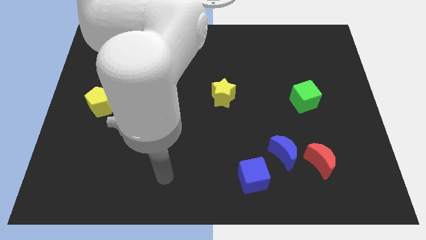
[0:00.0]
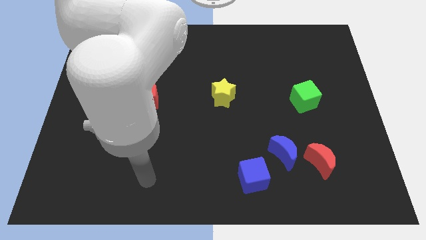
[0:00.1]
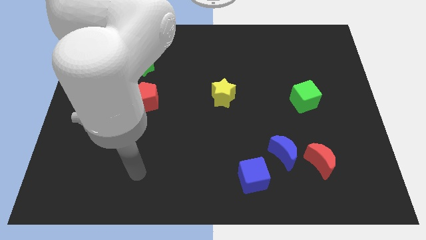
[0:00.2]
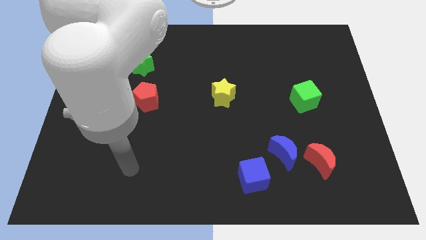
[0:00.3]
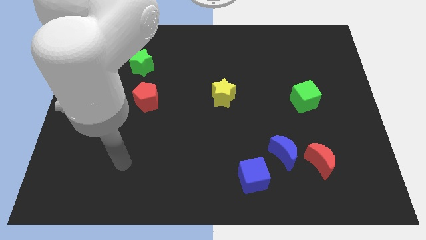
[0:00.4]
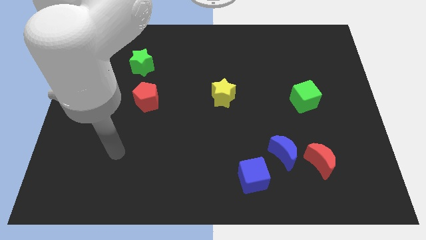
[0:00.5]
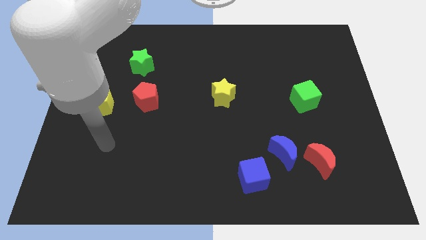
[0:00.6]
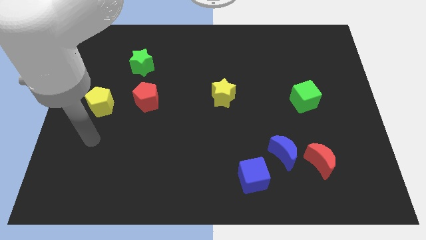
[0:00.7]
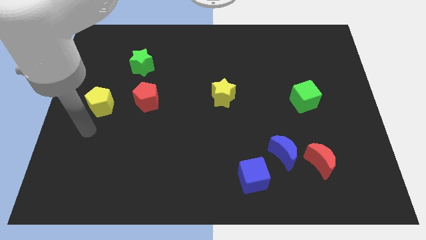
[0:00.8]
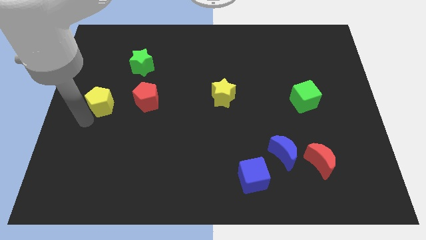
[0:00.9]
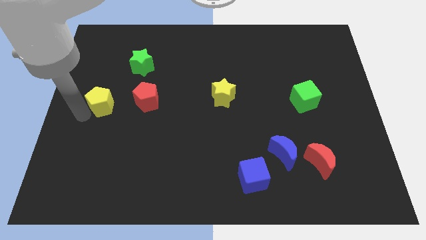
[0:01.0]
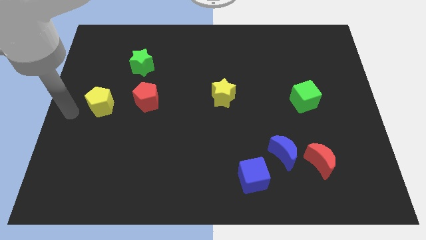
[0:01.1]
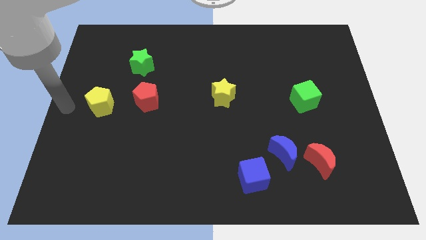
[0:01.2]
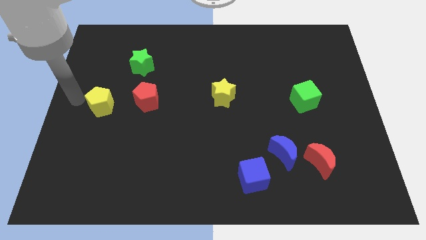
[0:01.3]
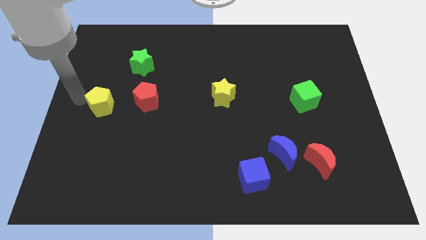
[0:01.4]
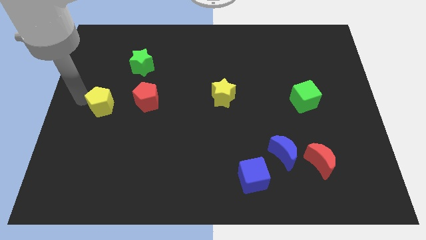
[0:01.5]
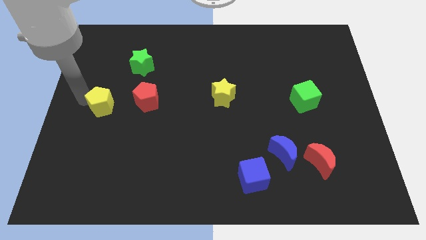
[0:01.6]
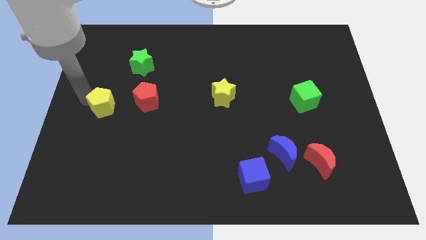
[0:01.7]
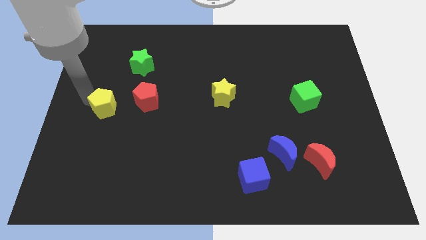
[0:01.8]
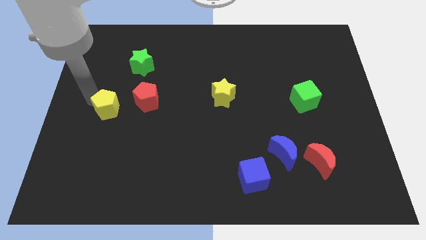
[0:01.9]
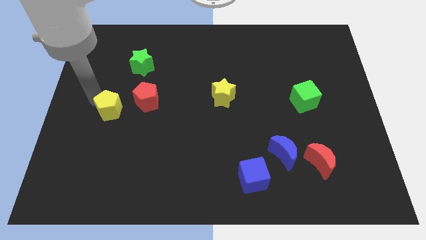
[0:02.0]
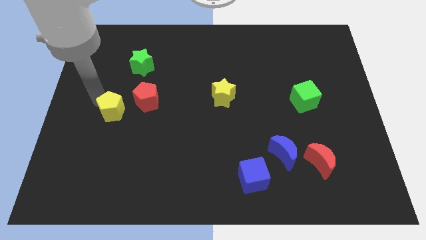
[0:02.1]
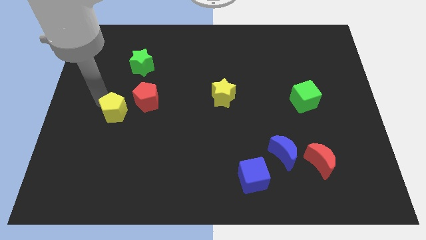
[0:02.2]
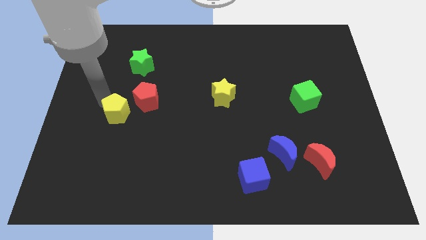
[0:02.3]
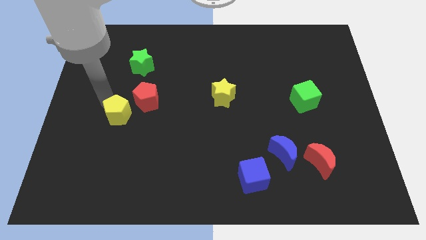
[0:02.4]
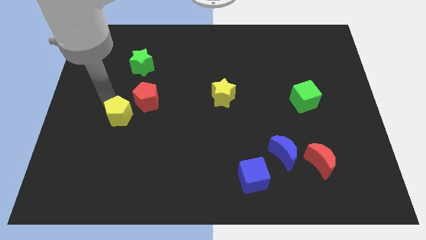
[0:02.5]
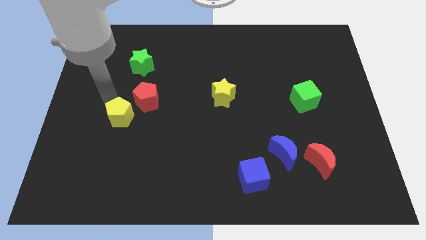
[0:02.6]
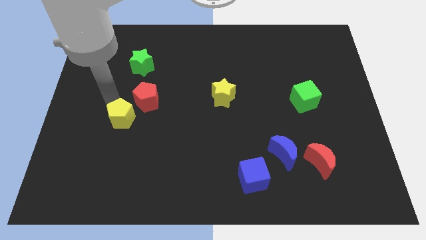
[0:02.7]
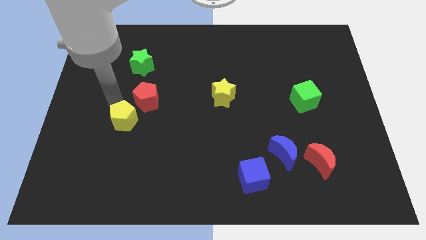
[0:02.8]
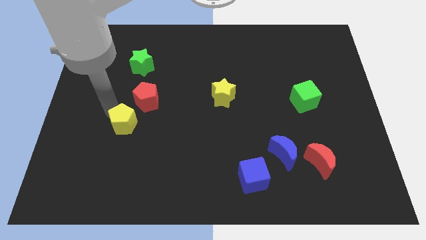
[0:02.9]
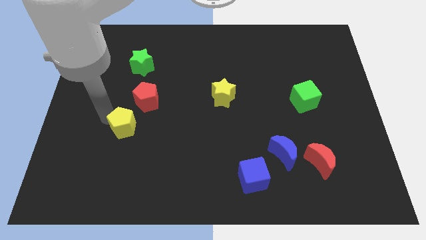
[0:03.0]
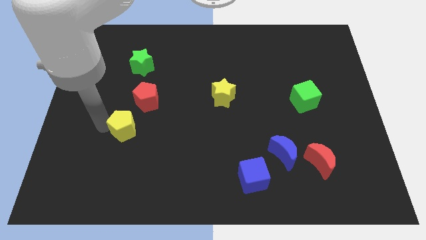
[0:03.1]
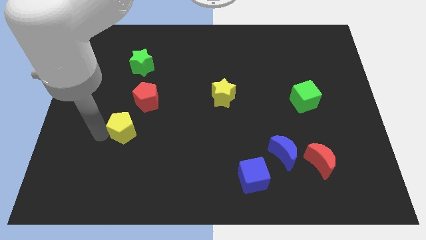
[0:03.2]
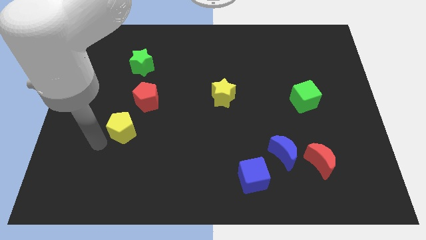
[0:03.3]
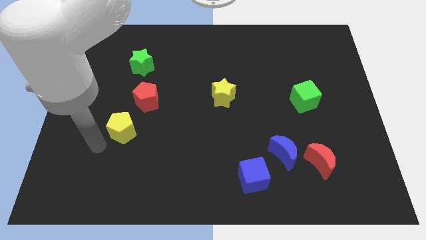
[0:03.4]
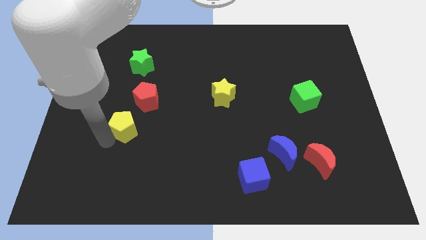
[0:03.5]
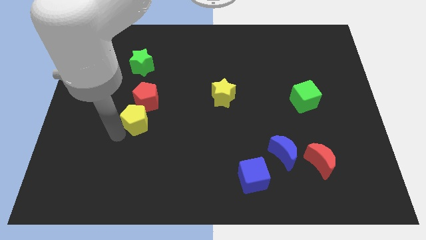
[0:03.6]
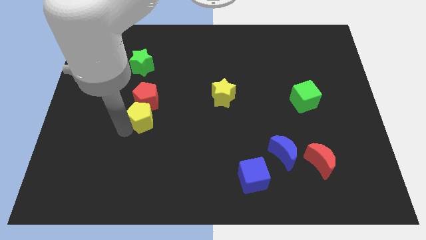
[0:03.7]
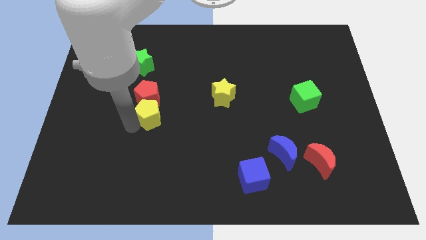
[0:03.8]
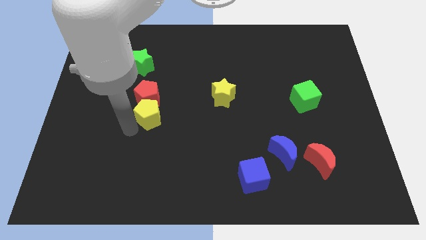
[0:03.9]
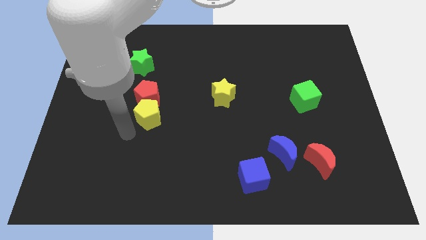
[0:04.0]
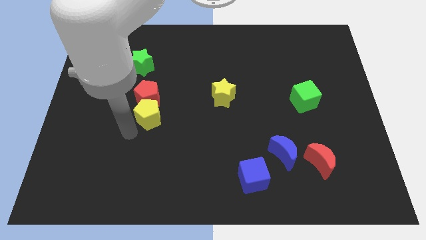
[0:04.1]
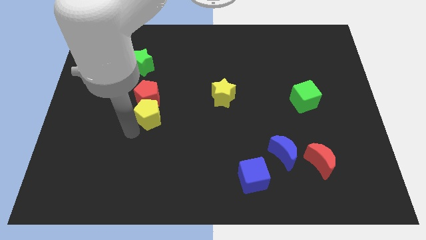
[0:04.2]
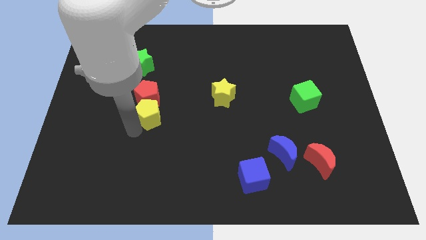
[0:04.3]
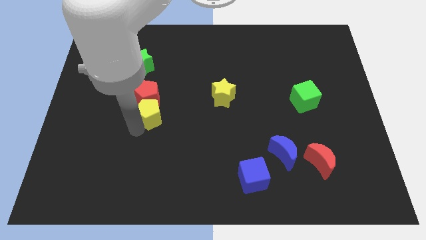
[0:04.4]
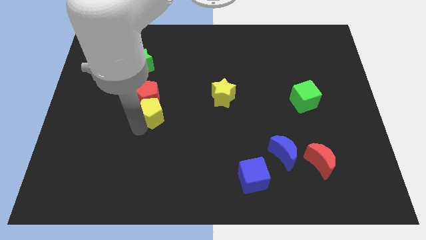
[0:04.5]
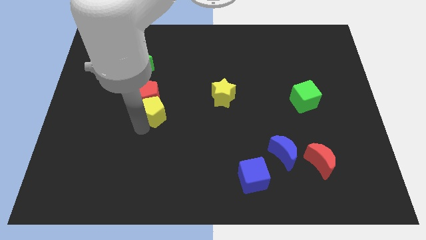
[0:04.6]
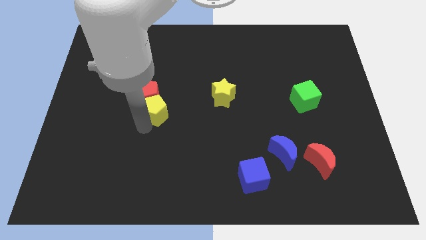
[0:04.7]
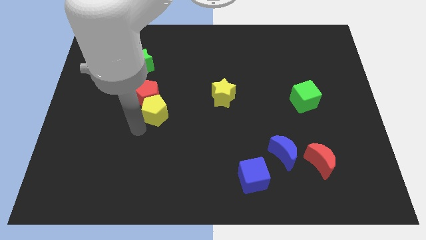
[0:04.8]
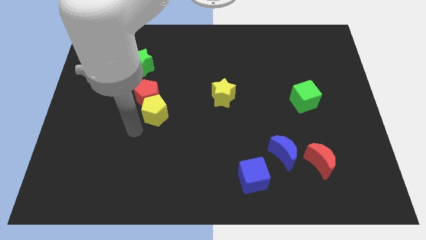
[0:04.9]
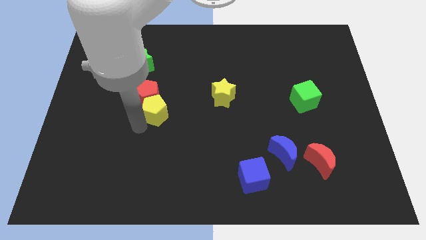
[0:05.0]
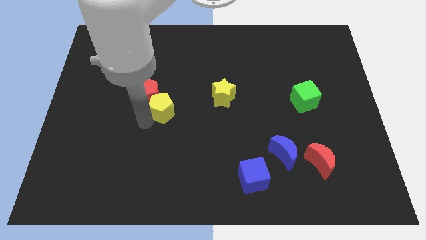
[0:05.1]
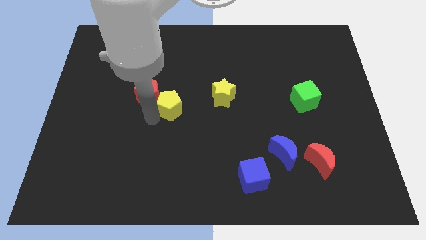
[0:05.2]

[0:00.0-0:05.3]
put the yellow pentagon to the left side of the yellow star

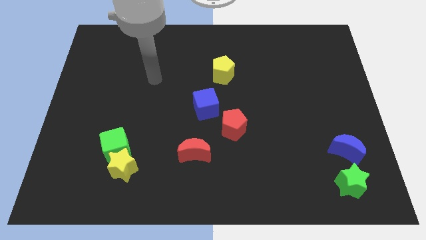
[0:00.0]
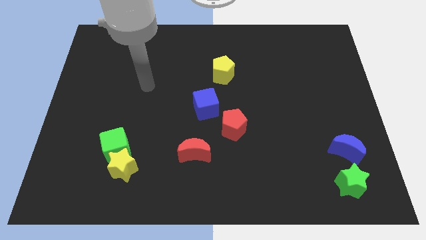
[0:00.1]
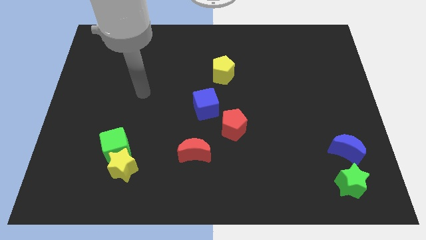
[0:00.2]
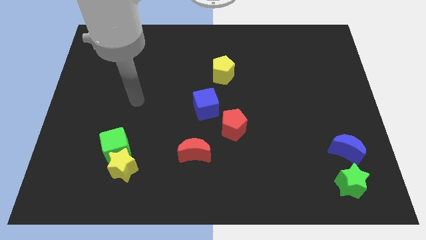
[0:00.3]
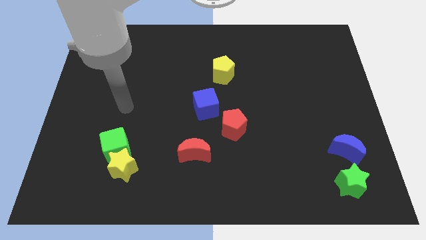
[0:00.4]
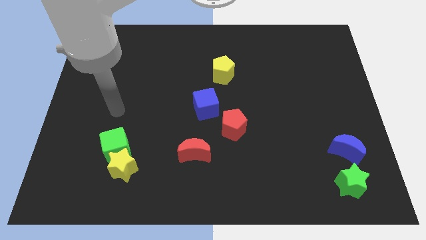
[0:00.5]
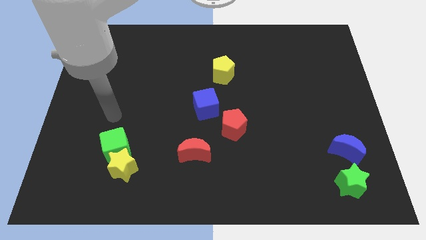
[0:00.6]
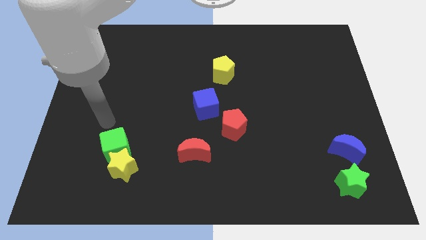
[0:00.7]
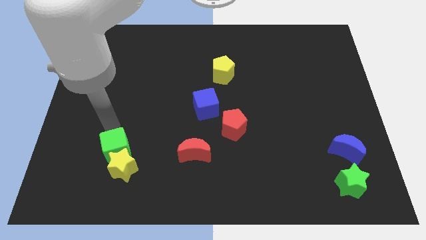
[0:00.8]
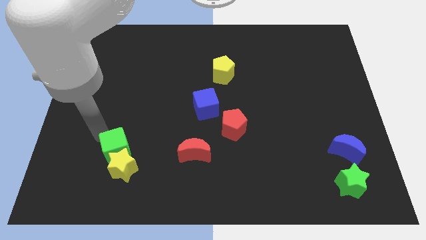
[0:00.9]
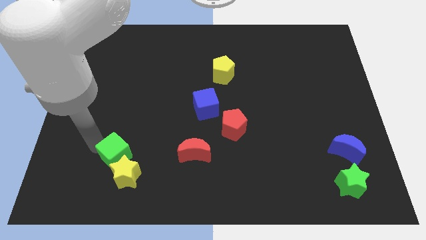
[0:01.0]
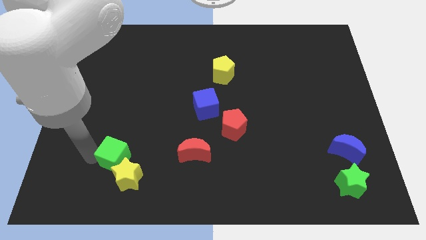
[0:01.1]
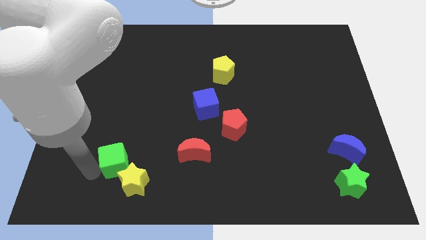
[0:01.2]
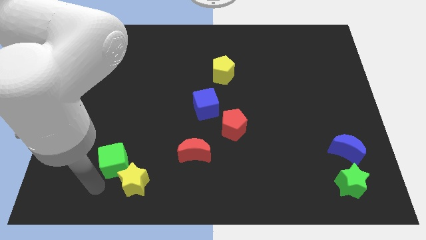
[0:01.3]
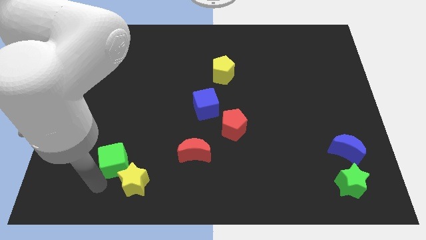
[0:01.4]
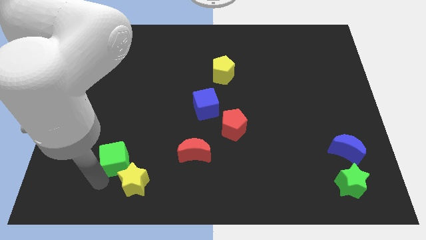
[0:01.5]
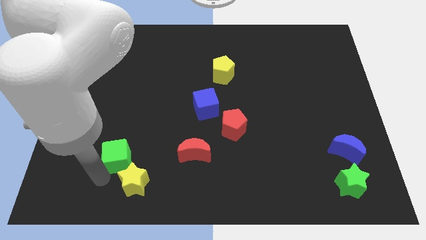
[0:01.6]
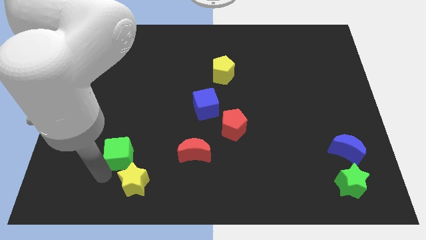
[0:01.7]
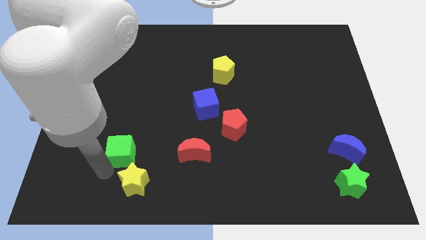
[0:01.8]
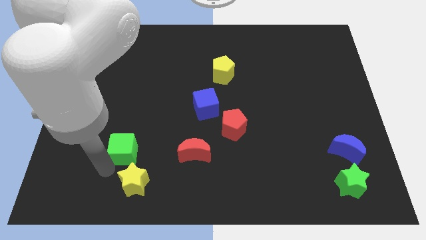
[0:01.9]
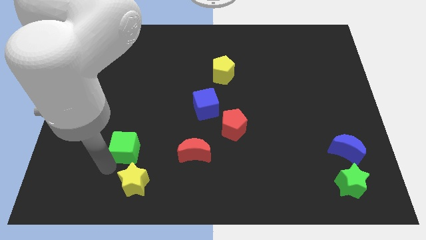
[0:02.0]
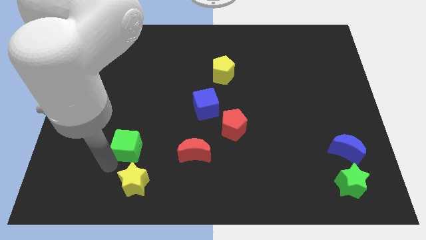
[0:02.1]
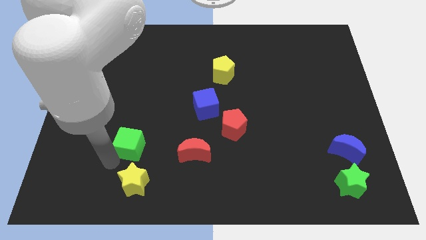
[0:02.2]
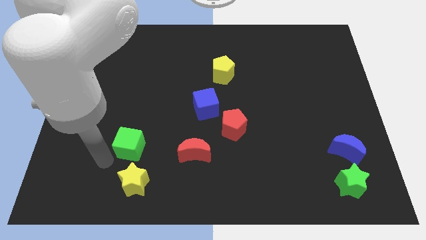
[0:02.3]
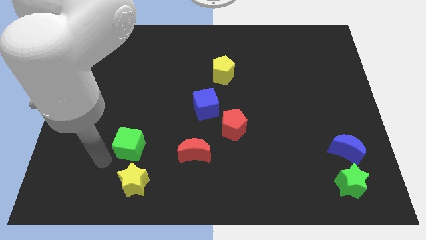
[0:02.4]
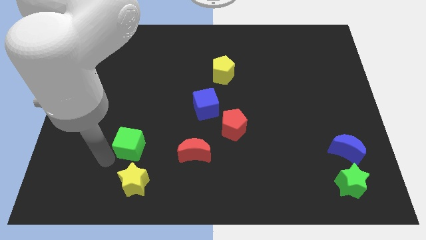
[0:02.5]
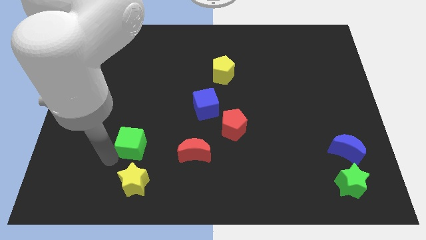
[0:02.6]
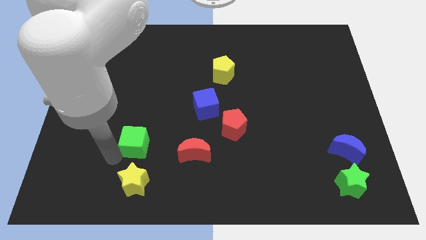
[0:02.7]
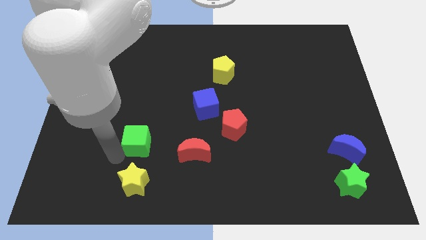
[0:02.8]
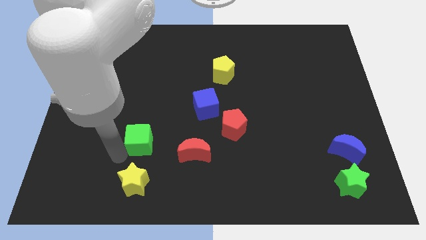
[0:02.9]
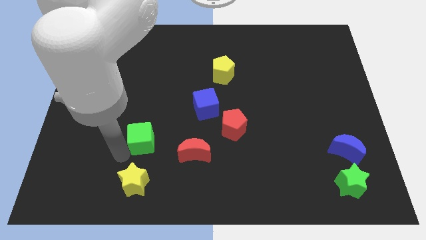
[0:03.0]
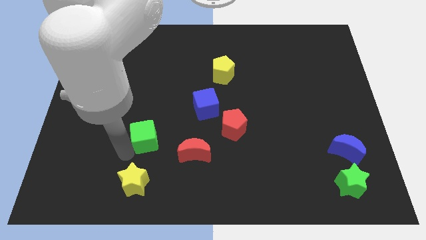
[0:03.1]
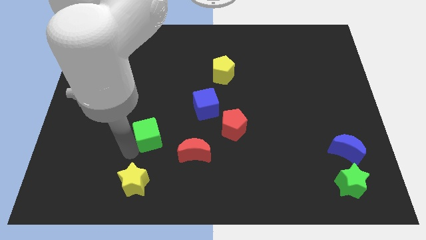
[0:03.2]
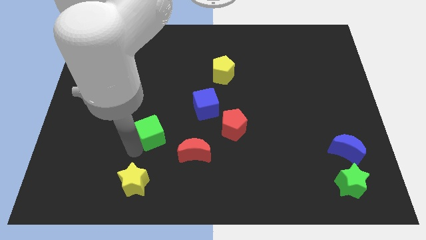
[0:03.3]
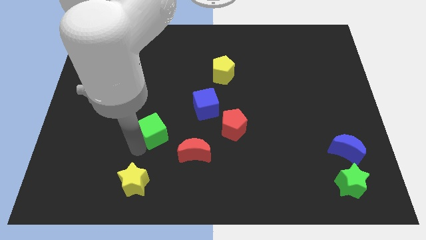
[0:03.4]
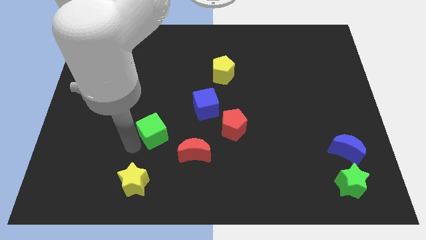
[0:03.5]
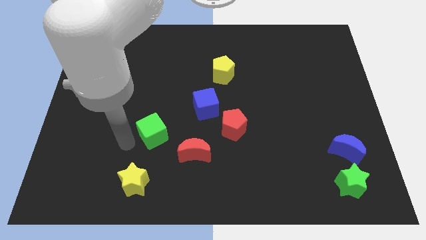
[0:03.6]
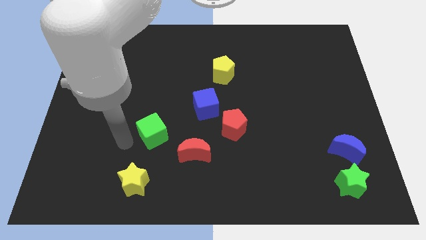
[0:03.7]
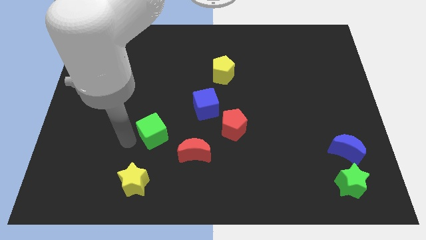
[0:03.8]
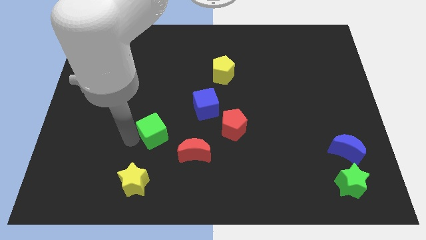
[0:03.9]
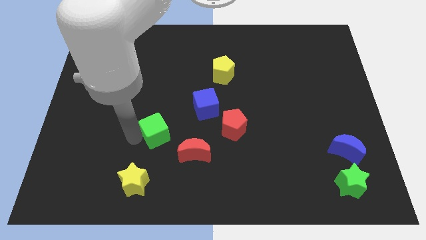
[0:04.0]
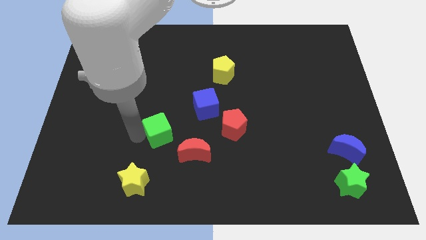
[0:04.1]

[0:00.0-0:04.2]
put the green cube diagonally down and to the left of the blue cube
